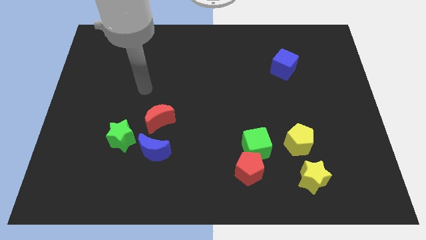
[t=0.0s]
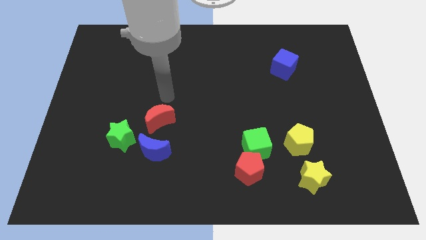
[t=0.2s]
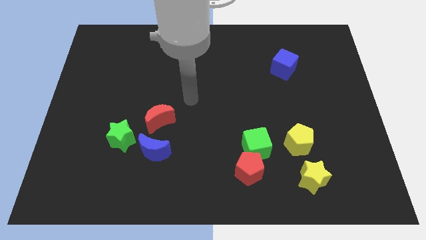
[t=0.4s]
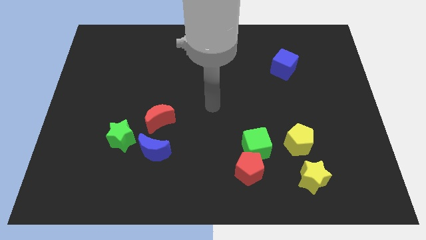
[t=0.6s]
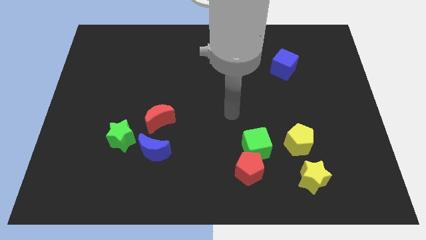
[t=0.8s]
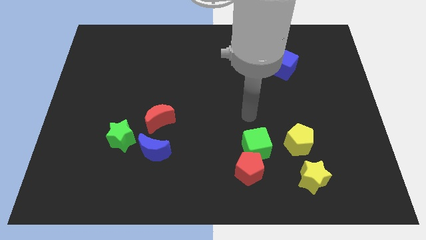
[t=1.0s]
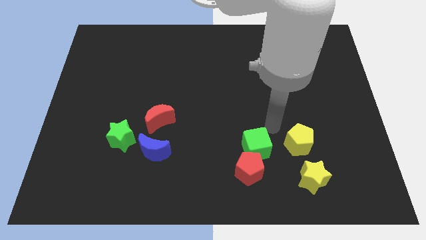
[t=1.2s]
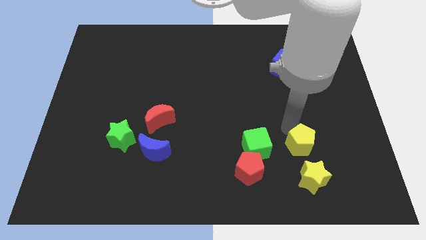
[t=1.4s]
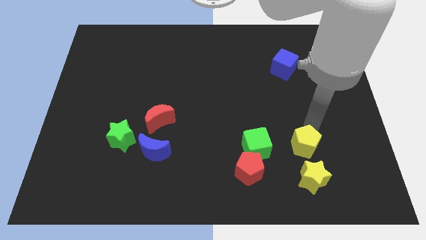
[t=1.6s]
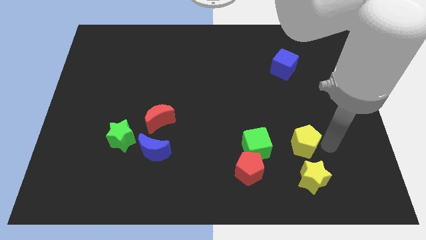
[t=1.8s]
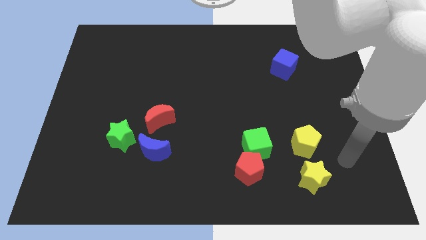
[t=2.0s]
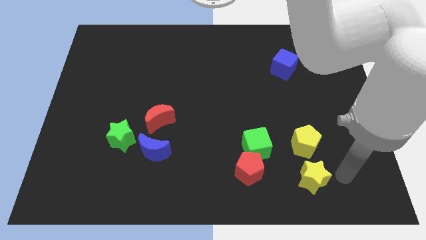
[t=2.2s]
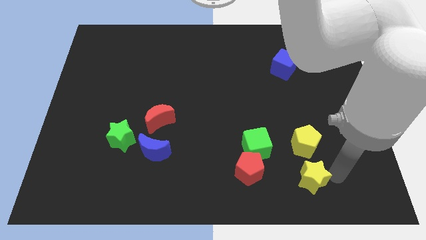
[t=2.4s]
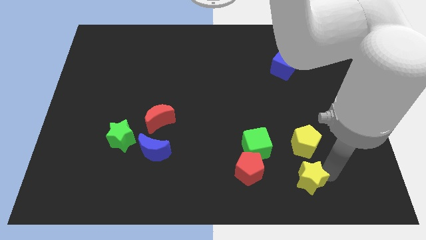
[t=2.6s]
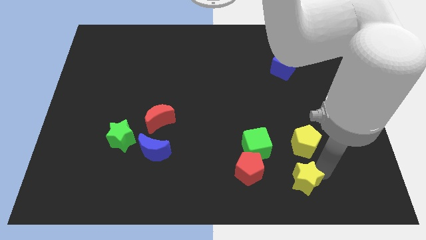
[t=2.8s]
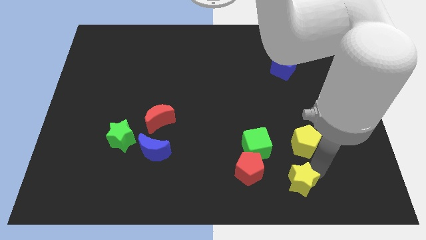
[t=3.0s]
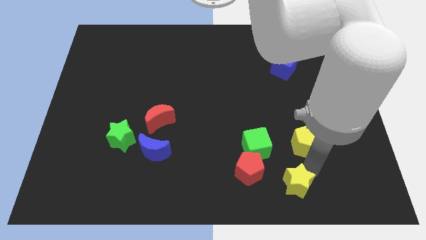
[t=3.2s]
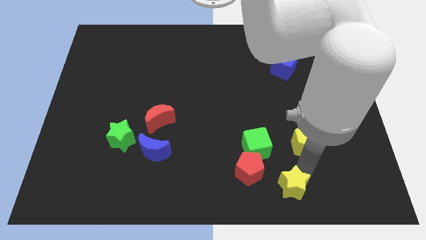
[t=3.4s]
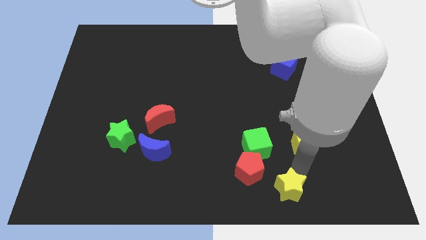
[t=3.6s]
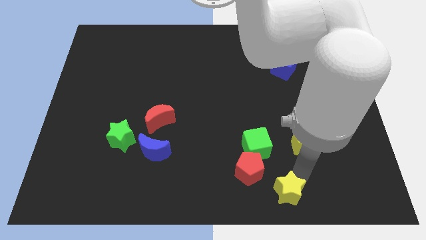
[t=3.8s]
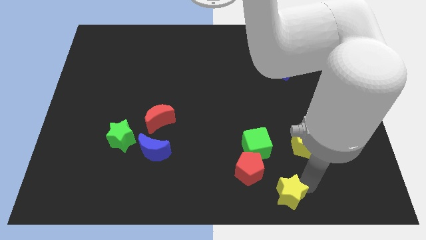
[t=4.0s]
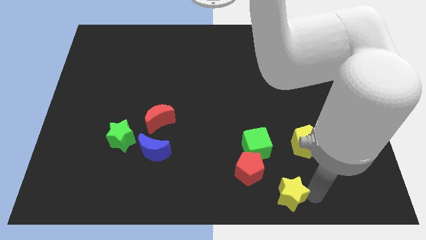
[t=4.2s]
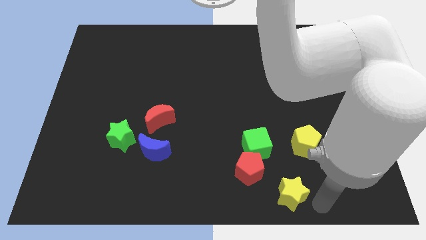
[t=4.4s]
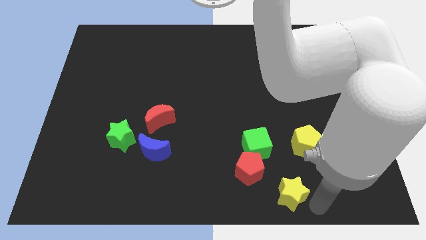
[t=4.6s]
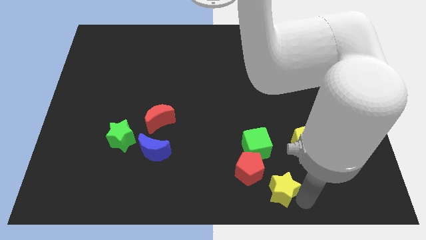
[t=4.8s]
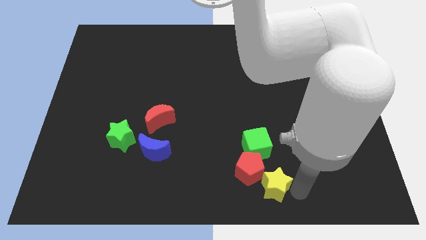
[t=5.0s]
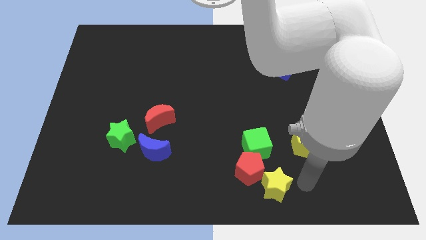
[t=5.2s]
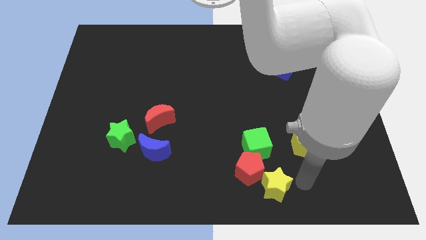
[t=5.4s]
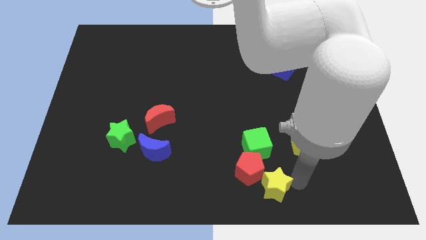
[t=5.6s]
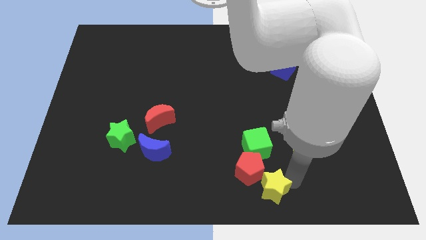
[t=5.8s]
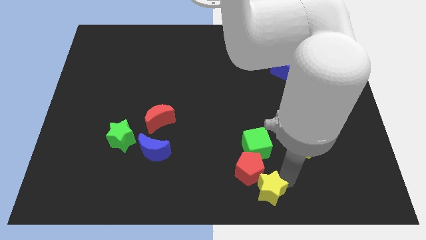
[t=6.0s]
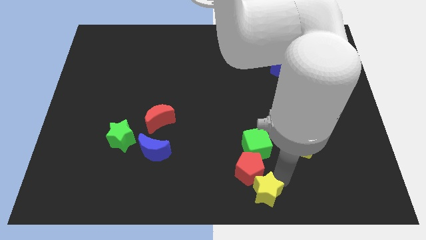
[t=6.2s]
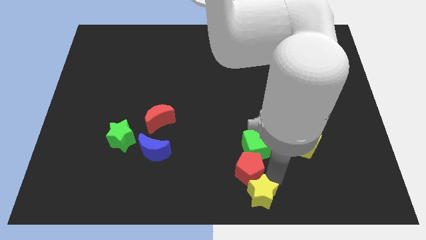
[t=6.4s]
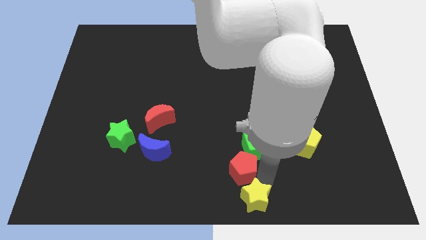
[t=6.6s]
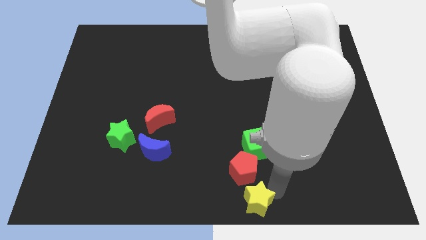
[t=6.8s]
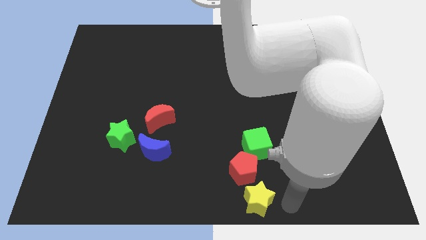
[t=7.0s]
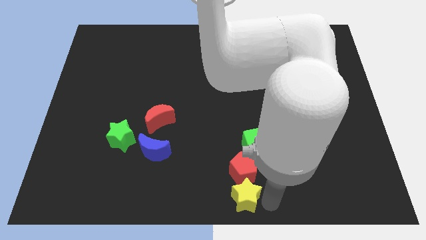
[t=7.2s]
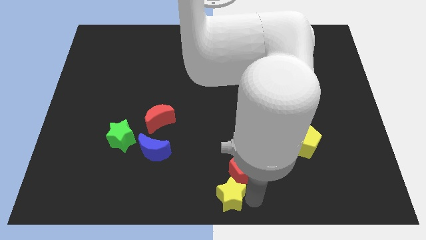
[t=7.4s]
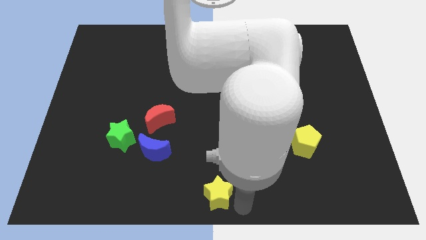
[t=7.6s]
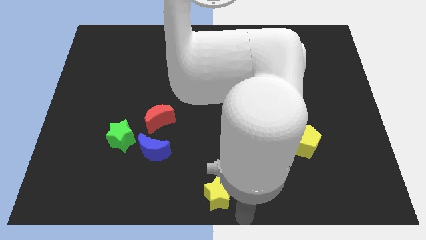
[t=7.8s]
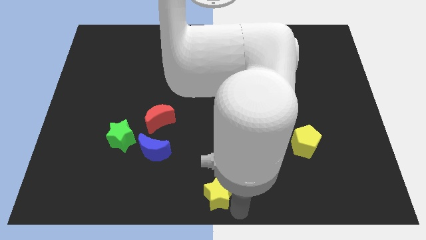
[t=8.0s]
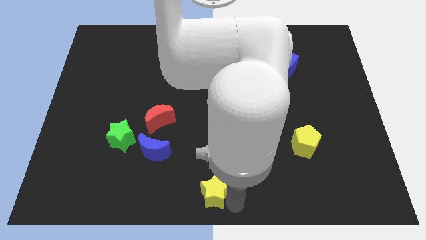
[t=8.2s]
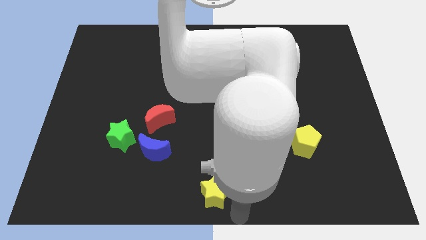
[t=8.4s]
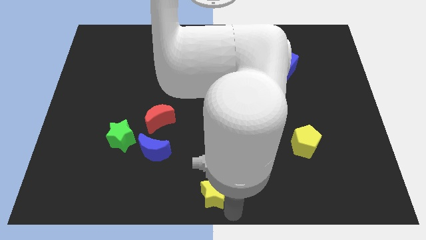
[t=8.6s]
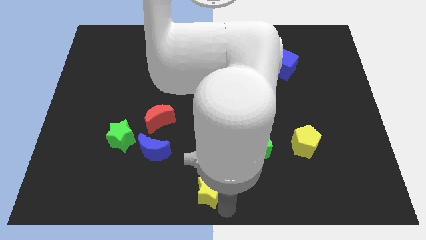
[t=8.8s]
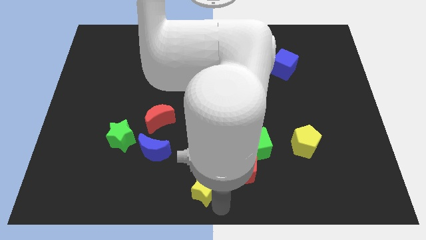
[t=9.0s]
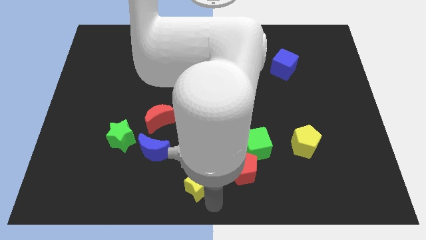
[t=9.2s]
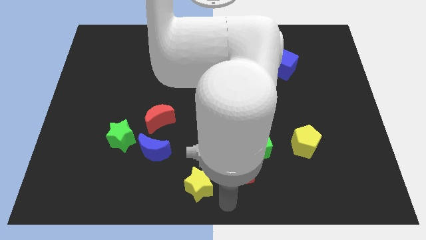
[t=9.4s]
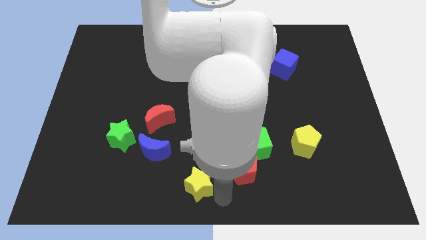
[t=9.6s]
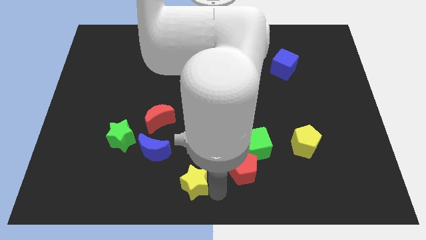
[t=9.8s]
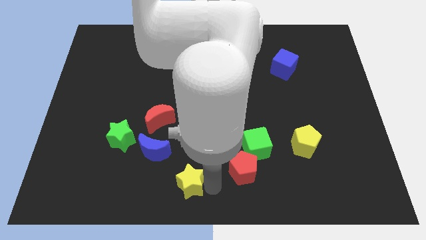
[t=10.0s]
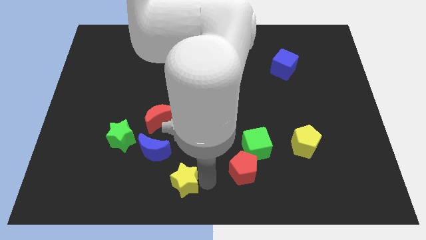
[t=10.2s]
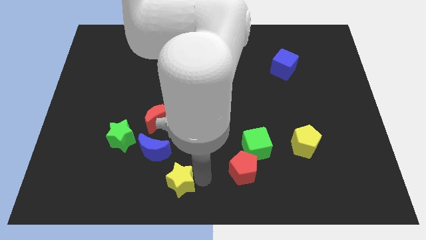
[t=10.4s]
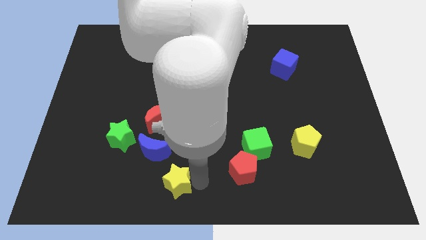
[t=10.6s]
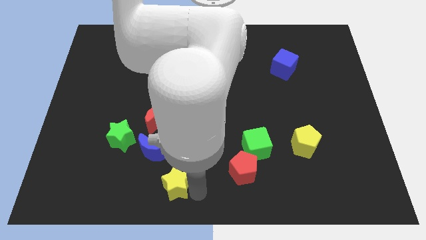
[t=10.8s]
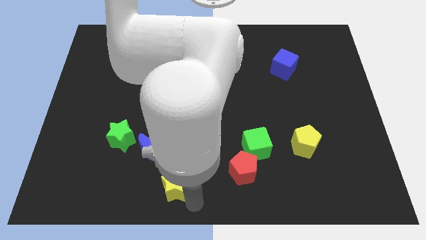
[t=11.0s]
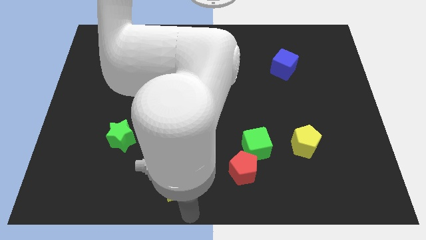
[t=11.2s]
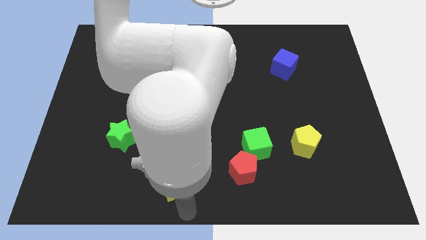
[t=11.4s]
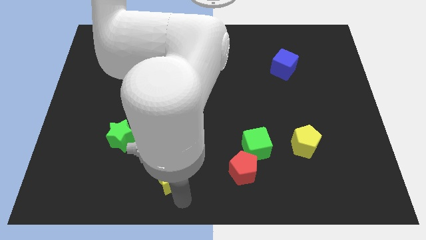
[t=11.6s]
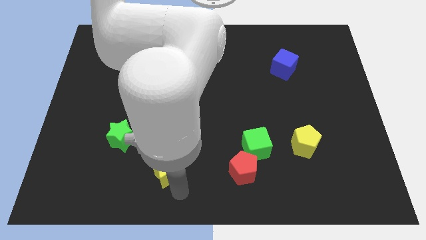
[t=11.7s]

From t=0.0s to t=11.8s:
push the yellow star to the bottom of the red moon

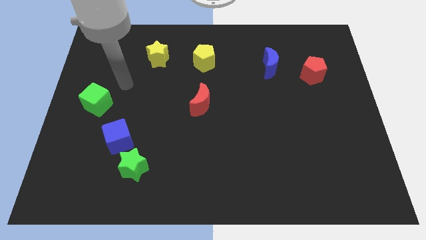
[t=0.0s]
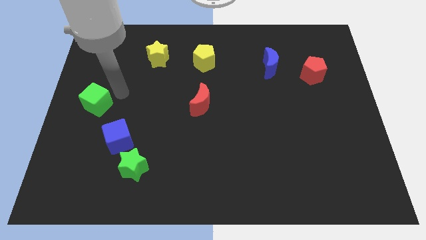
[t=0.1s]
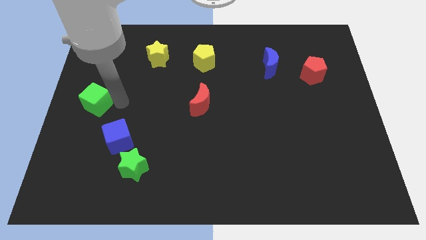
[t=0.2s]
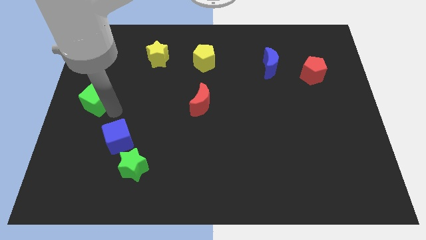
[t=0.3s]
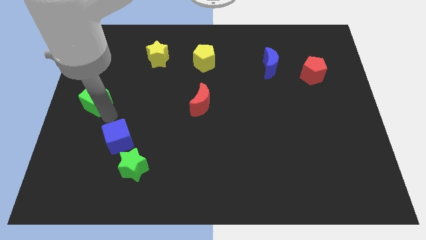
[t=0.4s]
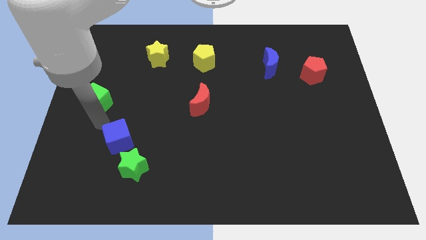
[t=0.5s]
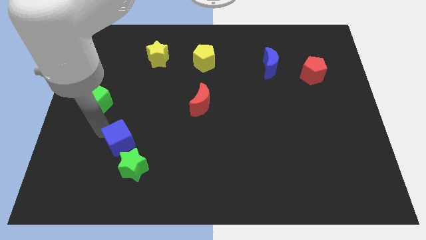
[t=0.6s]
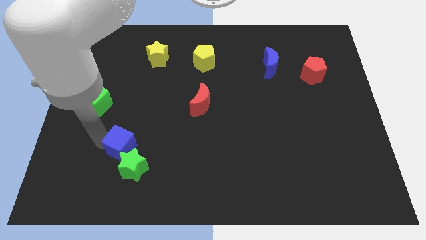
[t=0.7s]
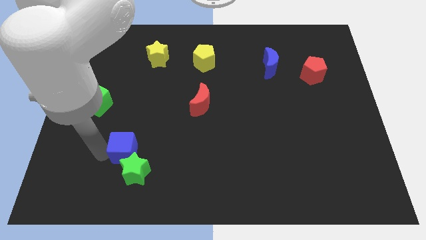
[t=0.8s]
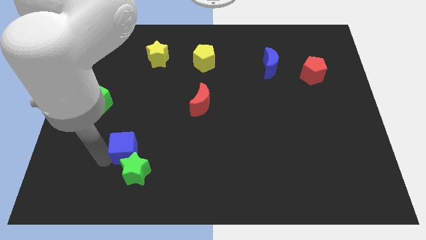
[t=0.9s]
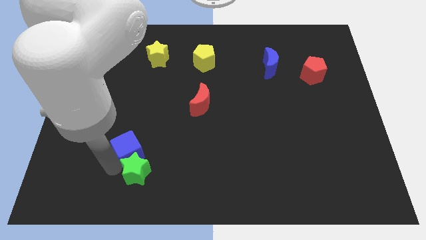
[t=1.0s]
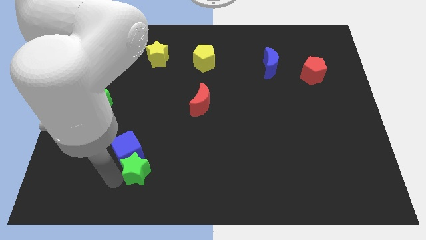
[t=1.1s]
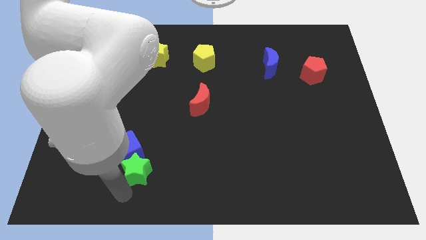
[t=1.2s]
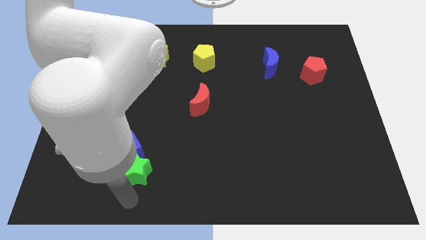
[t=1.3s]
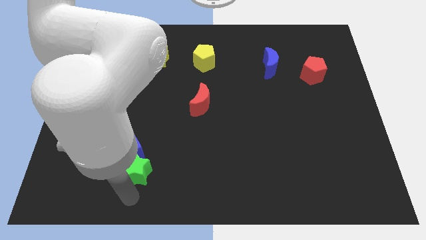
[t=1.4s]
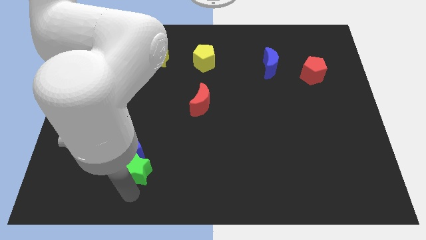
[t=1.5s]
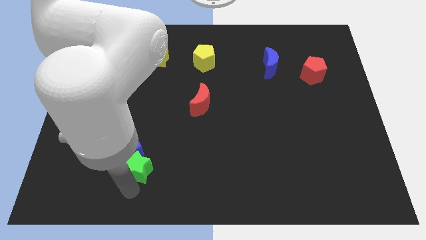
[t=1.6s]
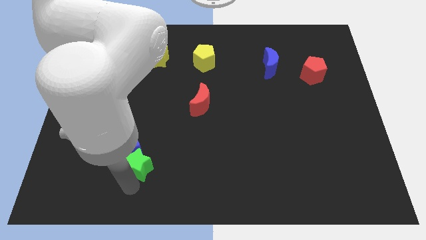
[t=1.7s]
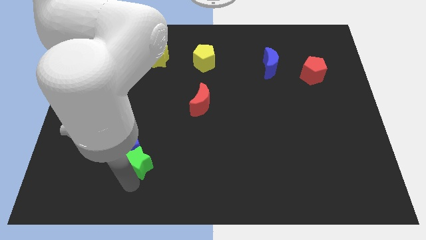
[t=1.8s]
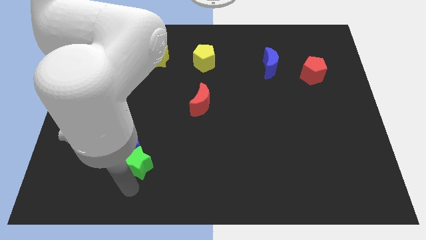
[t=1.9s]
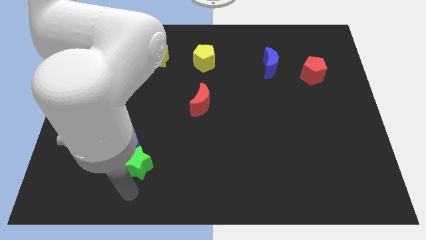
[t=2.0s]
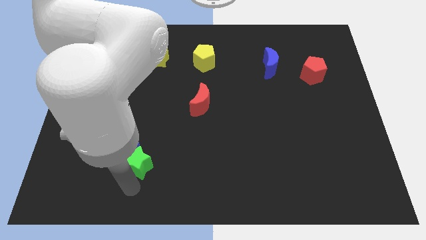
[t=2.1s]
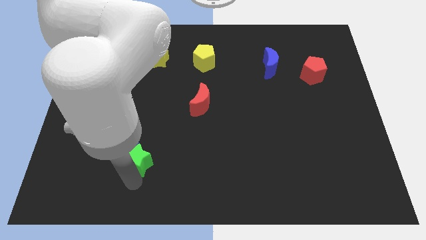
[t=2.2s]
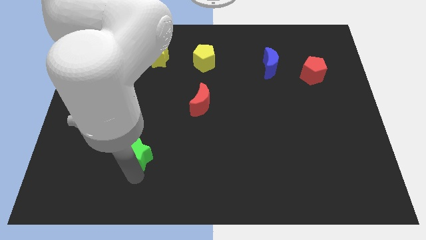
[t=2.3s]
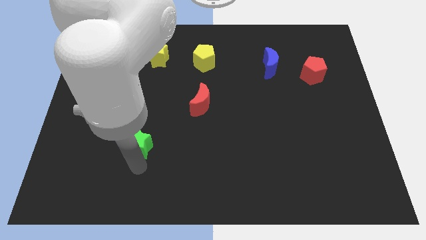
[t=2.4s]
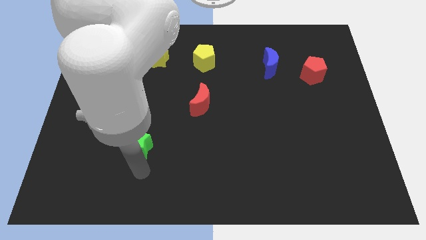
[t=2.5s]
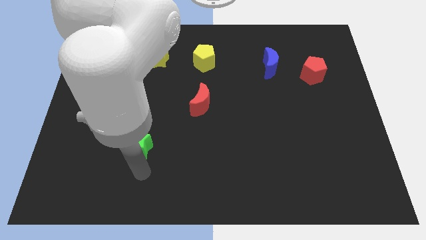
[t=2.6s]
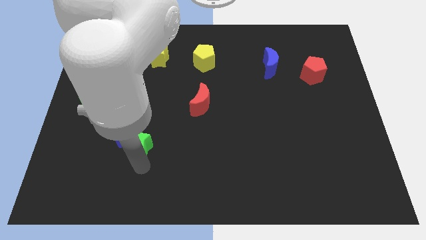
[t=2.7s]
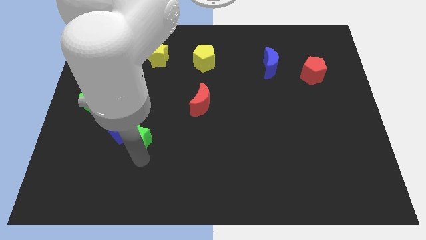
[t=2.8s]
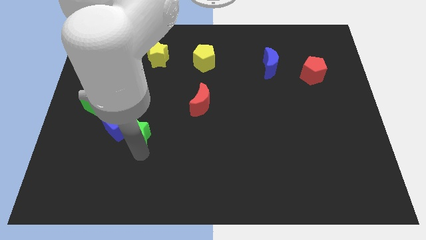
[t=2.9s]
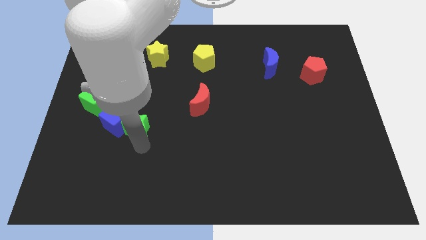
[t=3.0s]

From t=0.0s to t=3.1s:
move the green star to the bottom right side of the green cube
